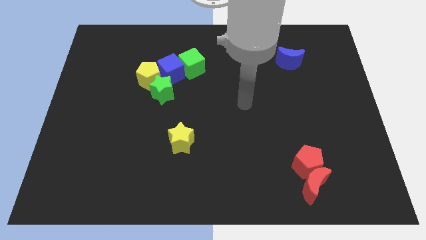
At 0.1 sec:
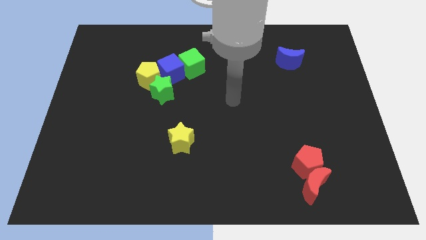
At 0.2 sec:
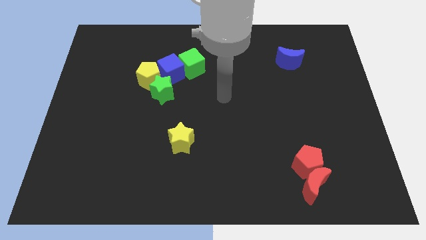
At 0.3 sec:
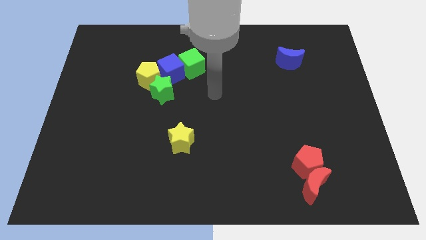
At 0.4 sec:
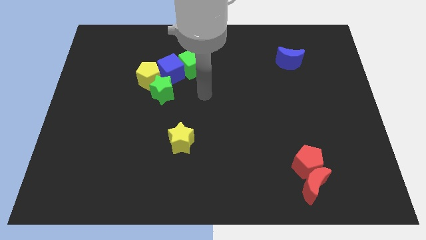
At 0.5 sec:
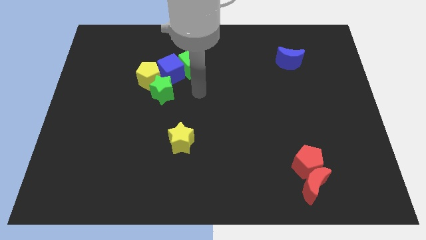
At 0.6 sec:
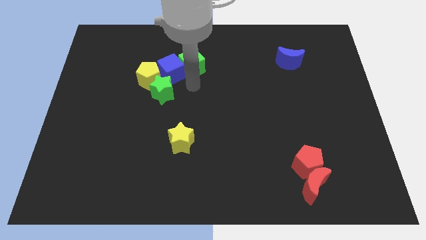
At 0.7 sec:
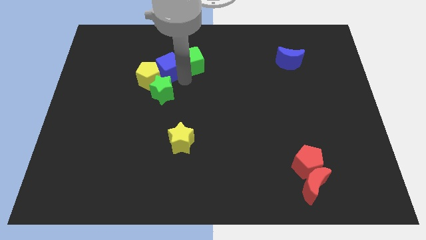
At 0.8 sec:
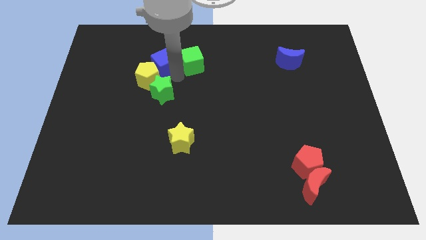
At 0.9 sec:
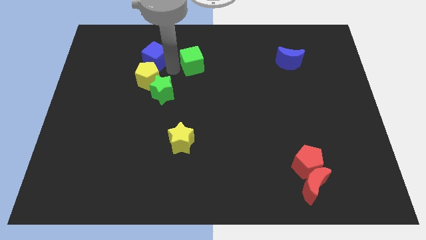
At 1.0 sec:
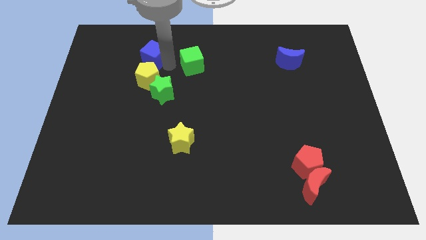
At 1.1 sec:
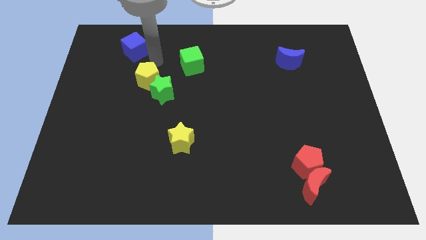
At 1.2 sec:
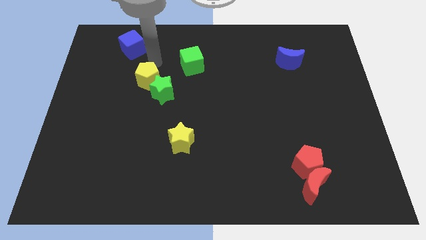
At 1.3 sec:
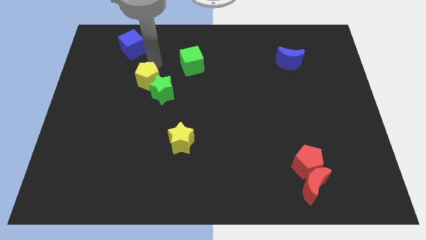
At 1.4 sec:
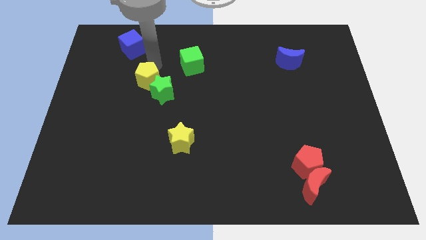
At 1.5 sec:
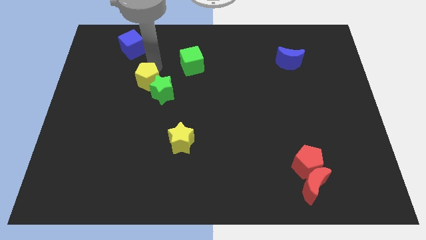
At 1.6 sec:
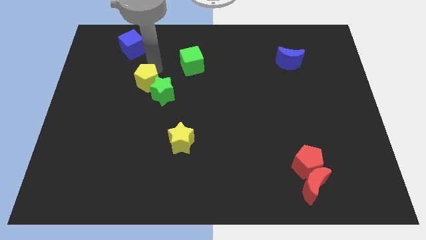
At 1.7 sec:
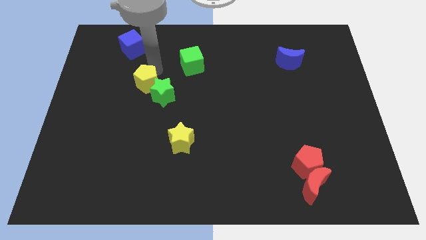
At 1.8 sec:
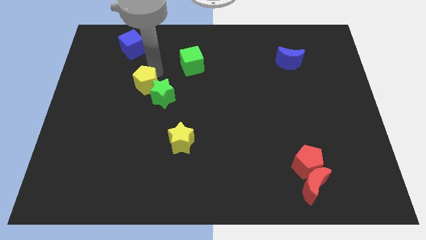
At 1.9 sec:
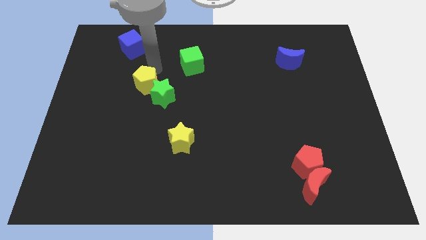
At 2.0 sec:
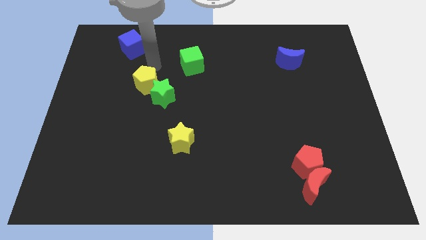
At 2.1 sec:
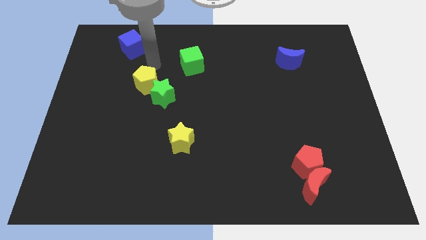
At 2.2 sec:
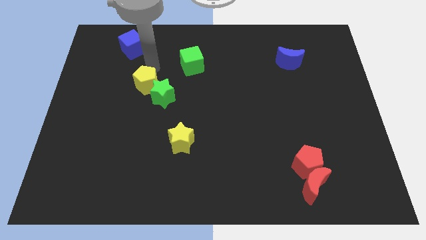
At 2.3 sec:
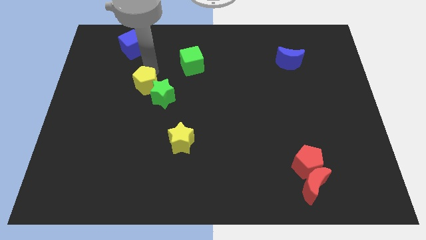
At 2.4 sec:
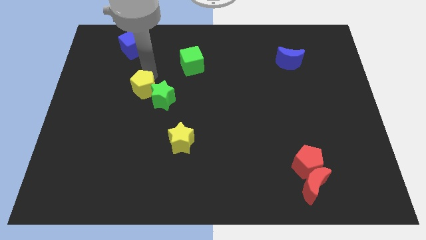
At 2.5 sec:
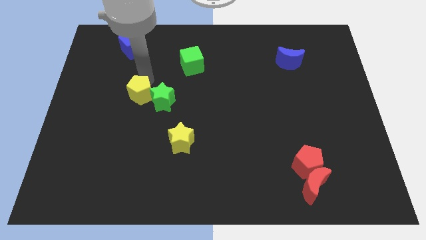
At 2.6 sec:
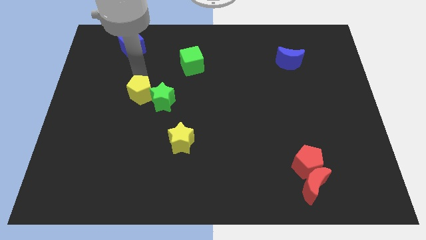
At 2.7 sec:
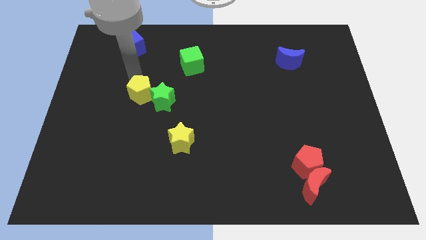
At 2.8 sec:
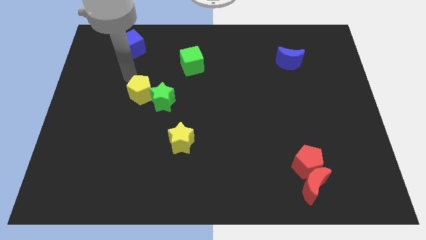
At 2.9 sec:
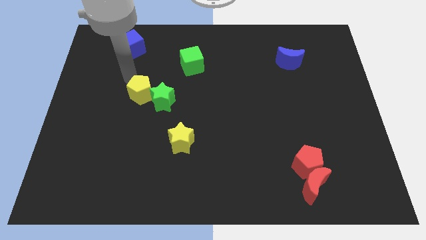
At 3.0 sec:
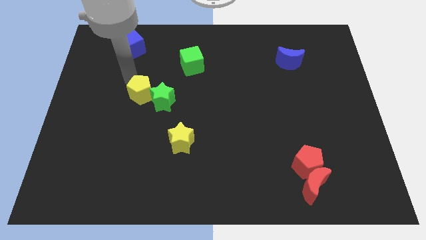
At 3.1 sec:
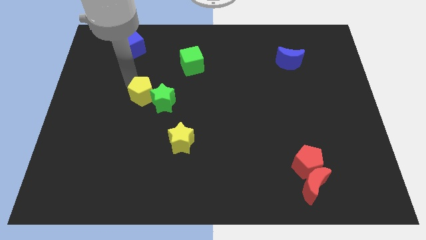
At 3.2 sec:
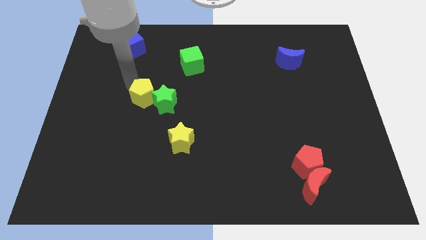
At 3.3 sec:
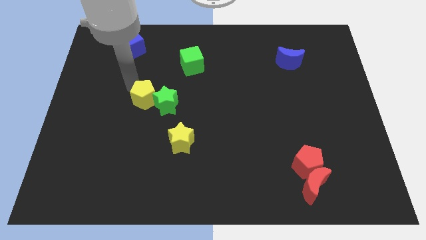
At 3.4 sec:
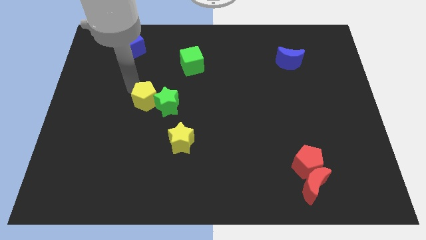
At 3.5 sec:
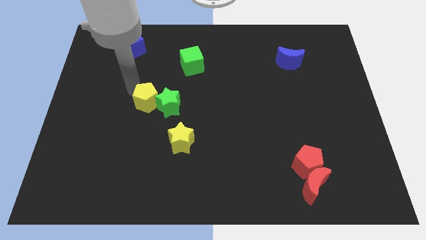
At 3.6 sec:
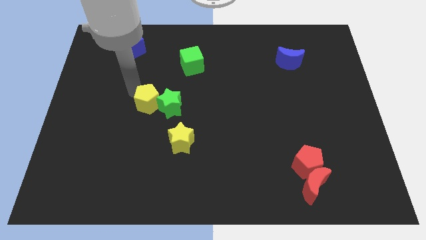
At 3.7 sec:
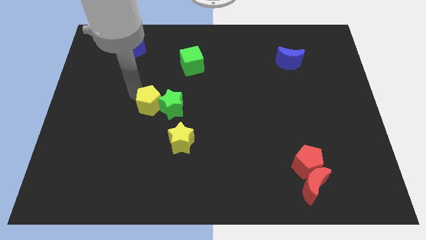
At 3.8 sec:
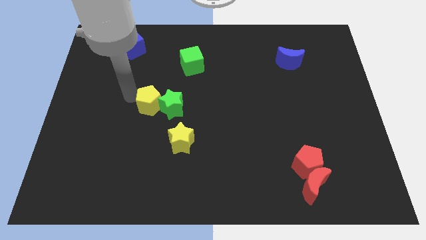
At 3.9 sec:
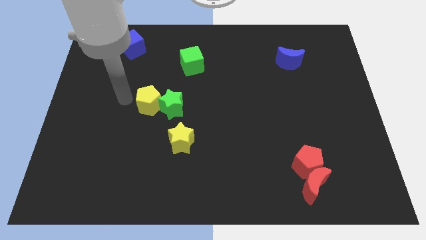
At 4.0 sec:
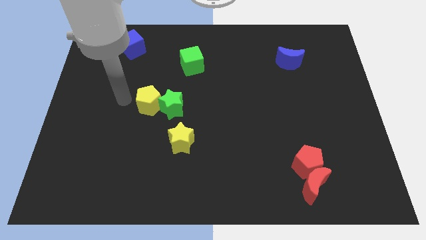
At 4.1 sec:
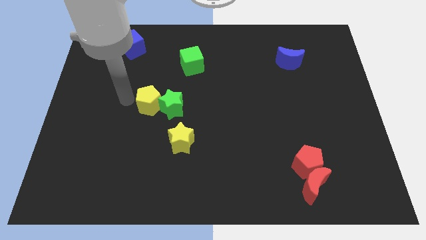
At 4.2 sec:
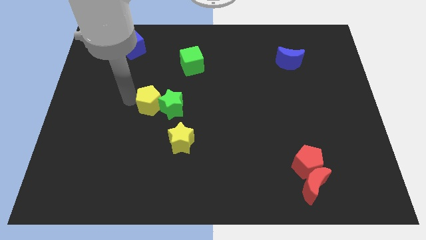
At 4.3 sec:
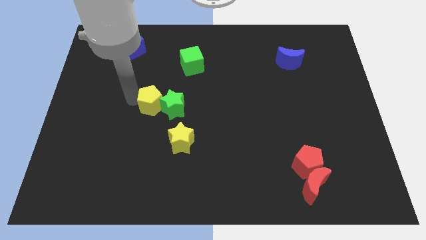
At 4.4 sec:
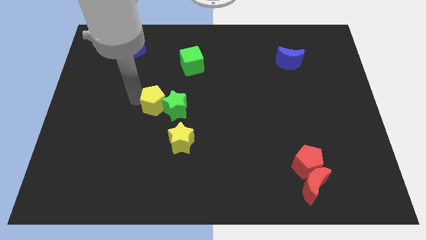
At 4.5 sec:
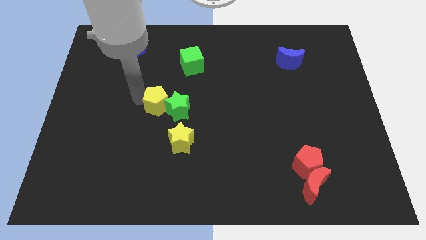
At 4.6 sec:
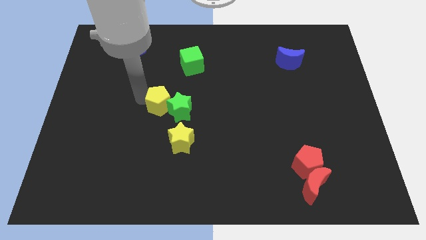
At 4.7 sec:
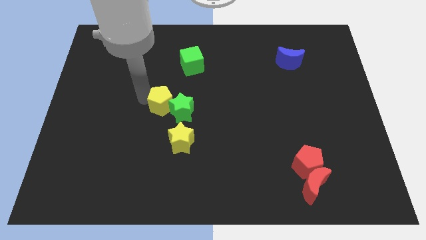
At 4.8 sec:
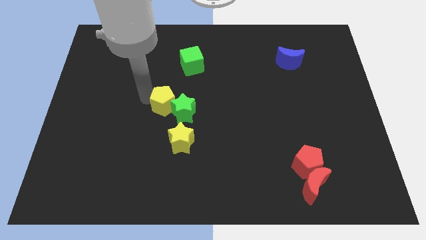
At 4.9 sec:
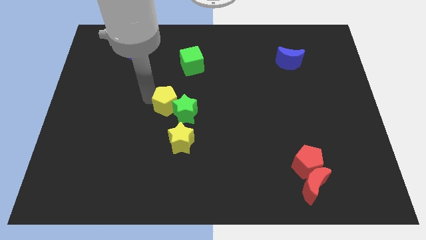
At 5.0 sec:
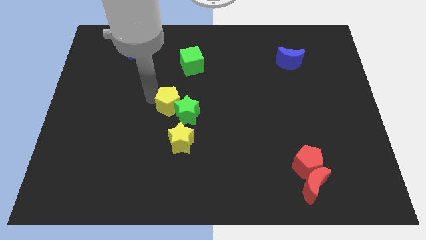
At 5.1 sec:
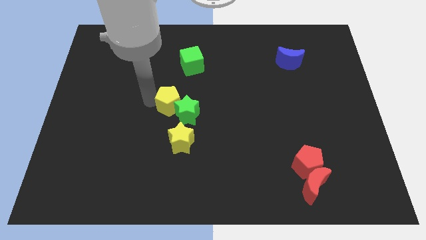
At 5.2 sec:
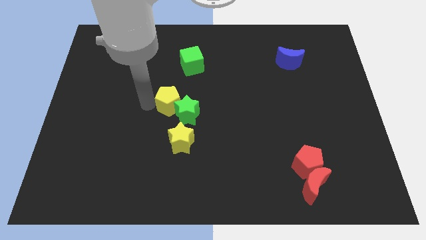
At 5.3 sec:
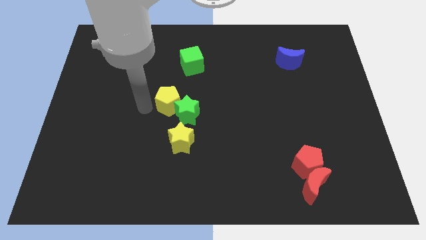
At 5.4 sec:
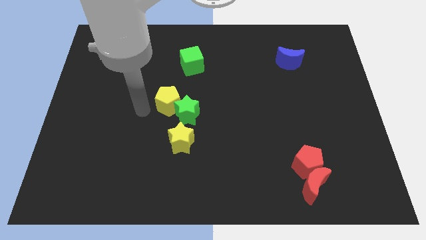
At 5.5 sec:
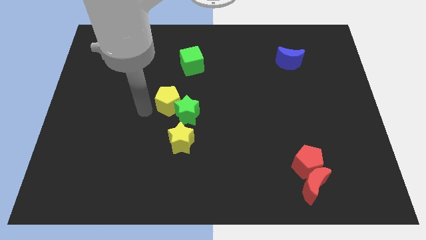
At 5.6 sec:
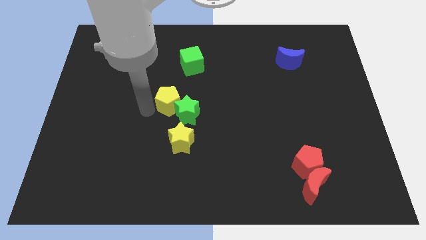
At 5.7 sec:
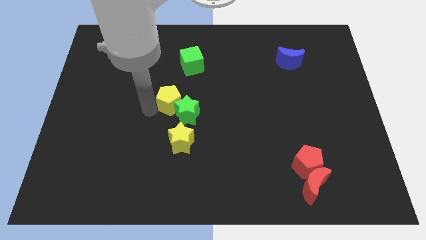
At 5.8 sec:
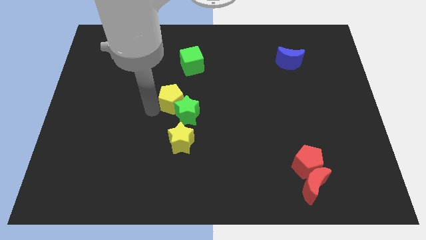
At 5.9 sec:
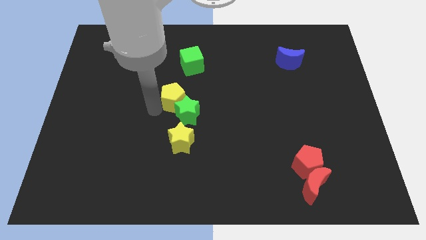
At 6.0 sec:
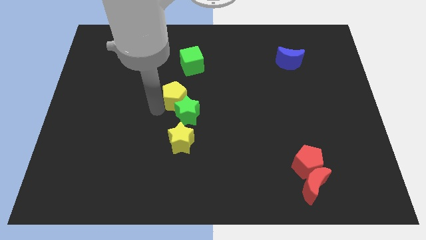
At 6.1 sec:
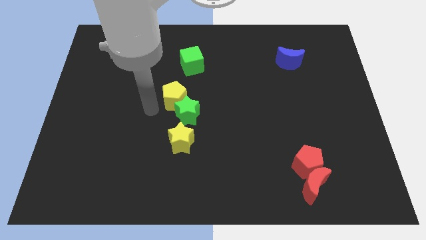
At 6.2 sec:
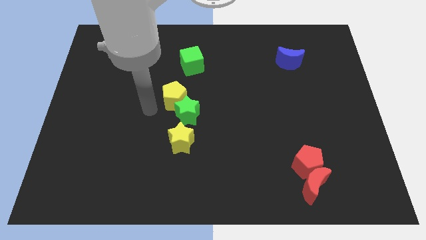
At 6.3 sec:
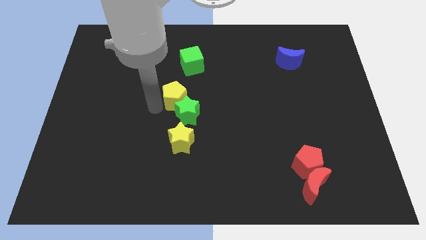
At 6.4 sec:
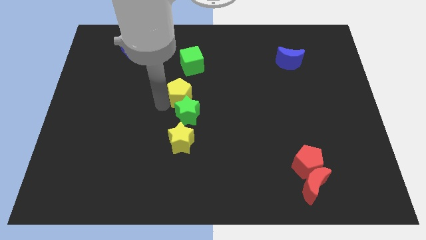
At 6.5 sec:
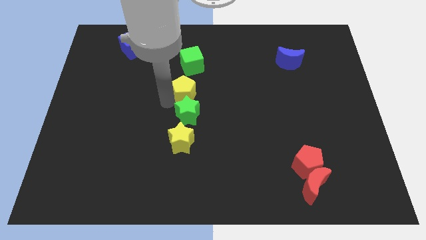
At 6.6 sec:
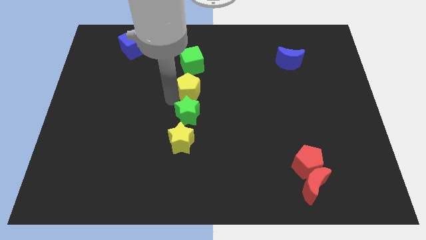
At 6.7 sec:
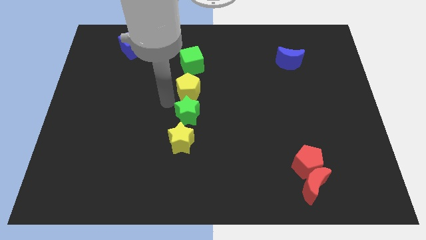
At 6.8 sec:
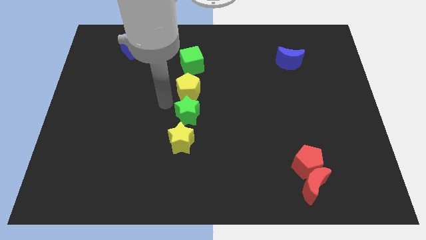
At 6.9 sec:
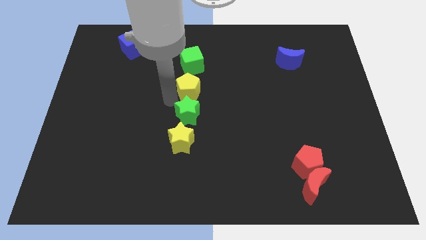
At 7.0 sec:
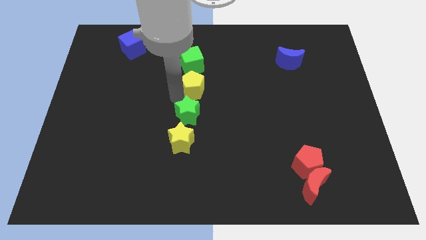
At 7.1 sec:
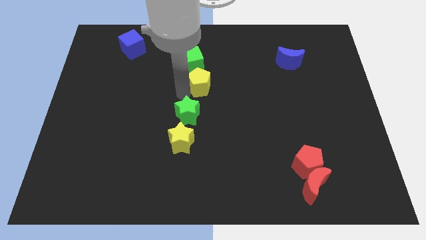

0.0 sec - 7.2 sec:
slide the yellow pentagon to the bottom right side of the green cube

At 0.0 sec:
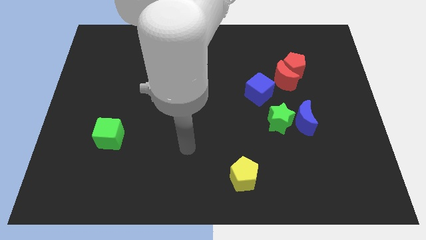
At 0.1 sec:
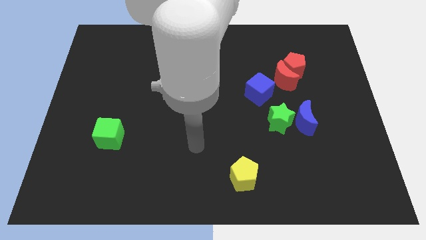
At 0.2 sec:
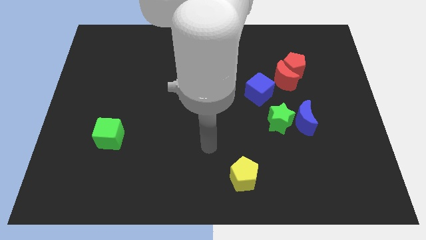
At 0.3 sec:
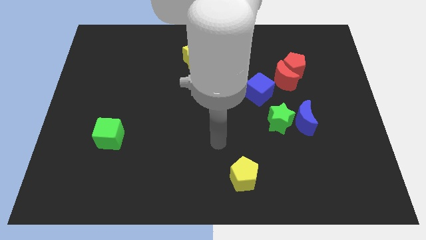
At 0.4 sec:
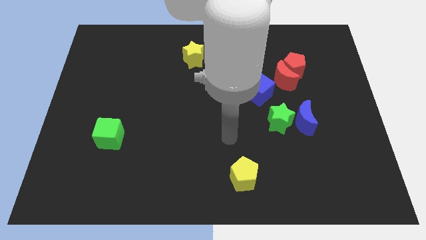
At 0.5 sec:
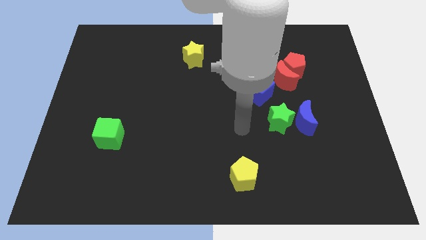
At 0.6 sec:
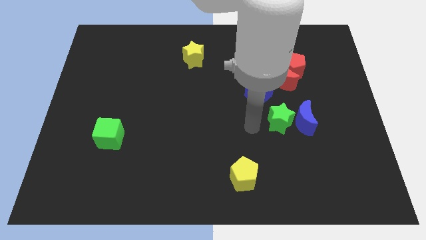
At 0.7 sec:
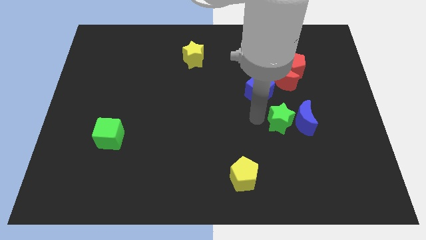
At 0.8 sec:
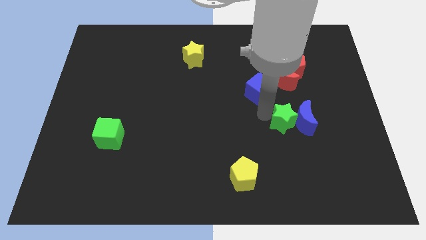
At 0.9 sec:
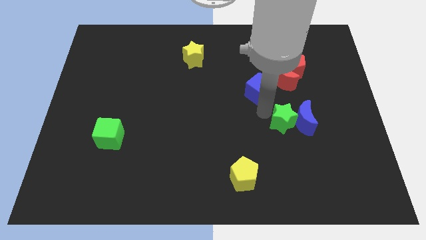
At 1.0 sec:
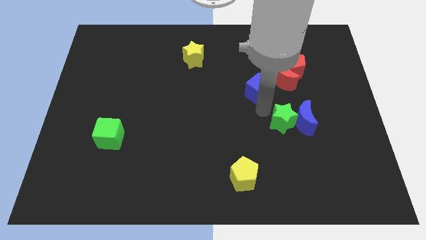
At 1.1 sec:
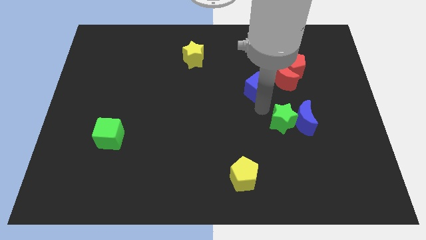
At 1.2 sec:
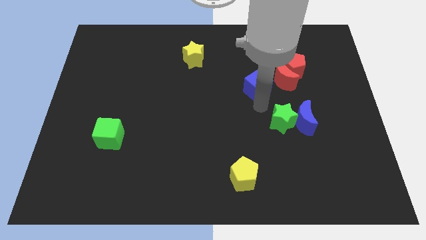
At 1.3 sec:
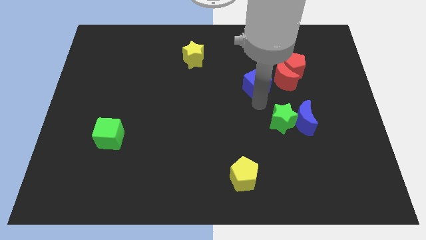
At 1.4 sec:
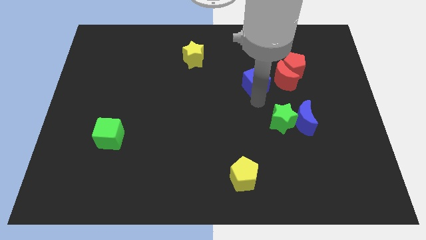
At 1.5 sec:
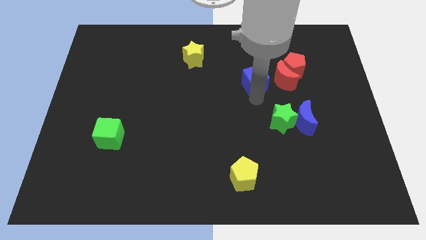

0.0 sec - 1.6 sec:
push the blue cube to the left side of the red pentagon
